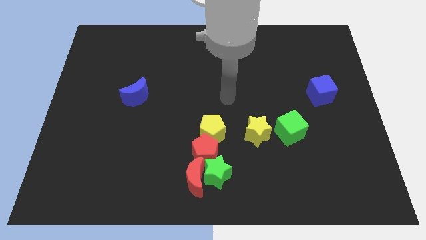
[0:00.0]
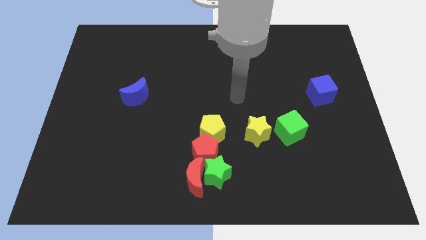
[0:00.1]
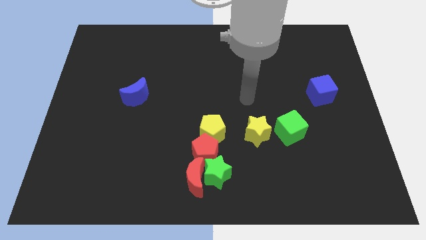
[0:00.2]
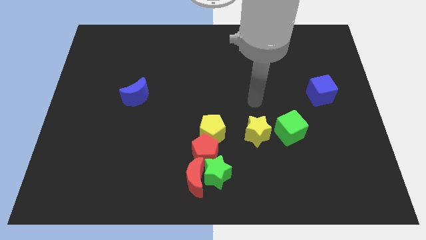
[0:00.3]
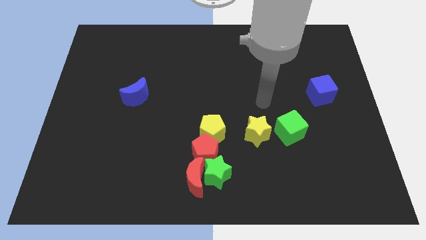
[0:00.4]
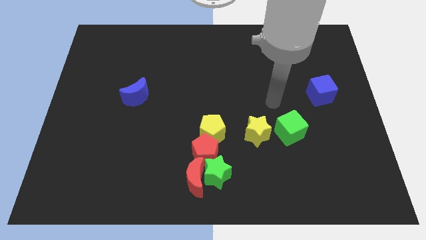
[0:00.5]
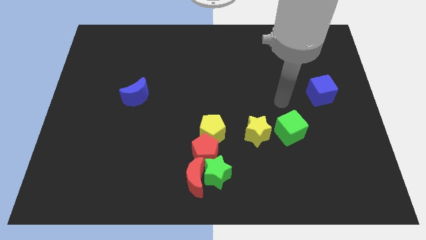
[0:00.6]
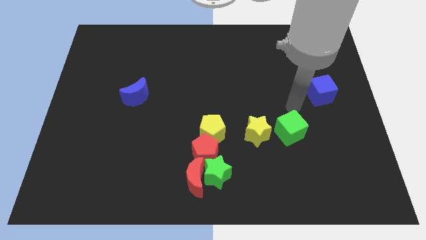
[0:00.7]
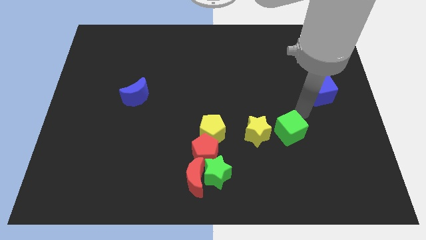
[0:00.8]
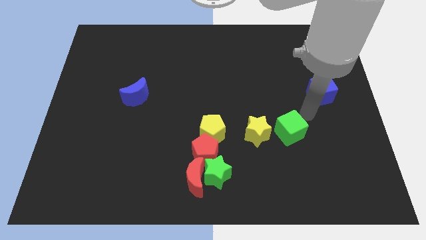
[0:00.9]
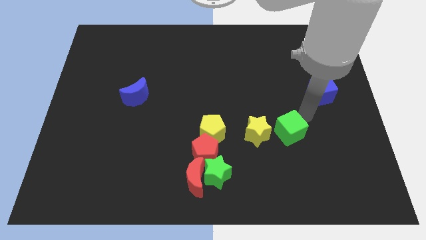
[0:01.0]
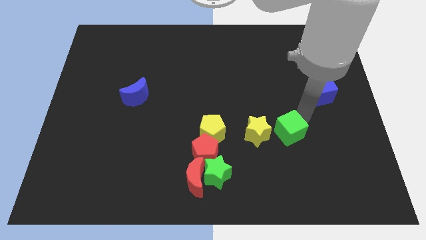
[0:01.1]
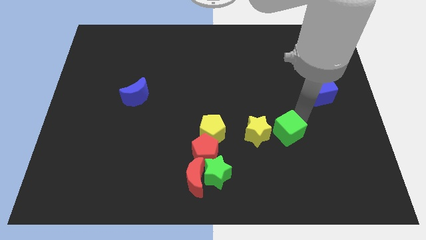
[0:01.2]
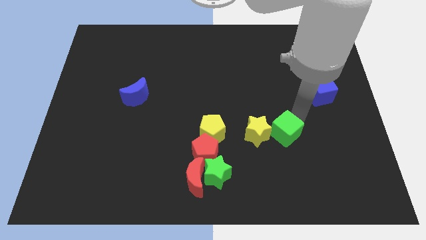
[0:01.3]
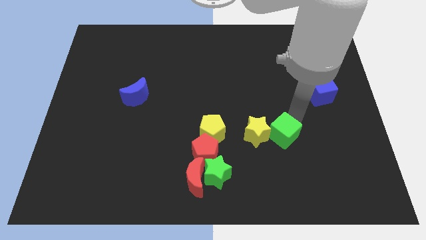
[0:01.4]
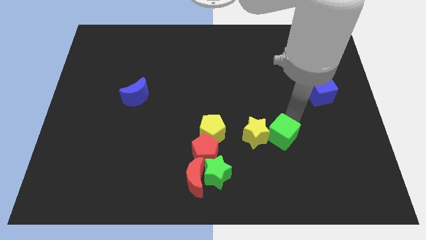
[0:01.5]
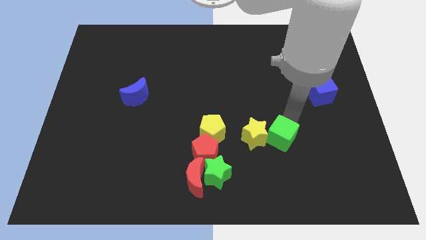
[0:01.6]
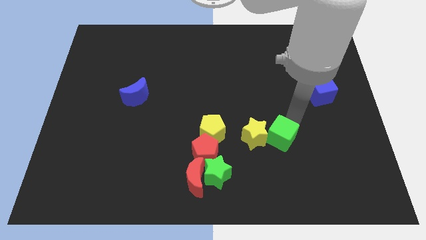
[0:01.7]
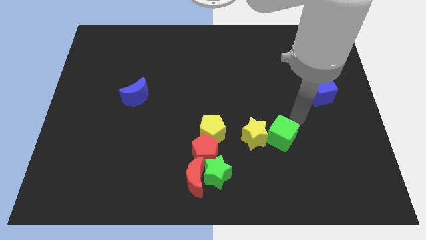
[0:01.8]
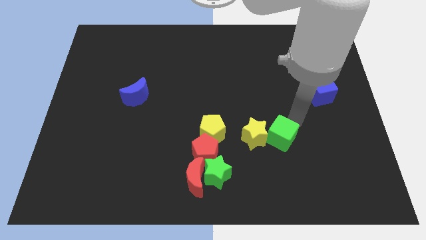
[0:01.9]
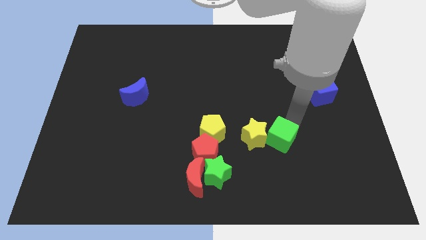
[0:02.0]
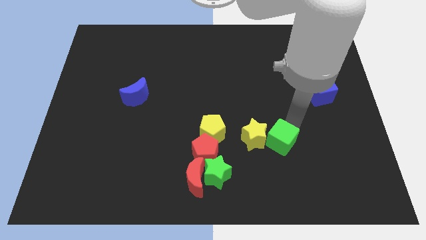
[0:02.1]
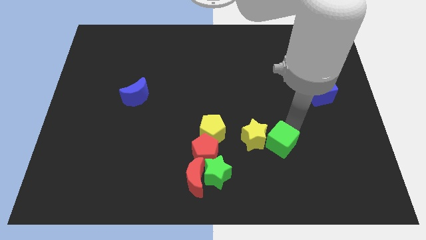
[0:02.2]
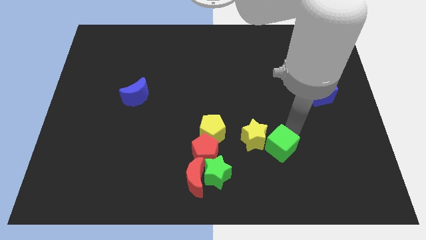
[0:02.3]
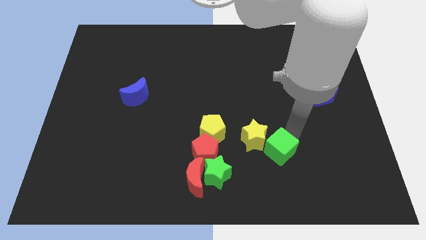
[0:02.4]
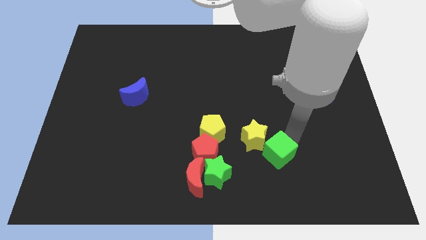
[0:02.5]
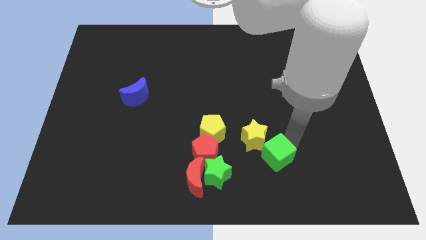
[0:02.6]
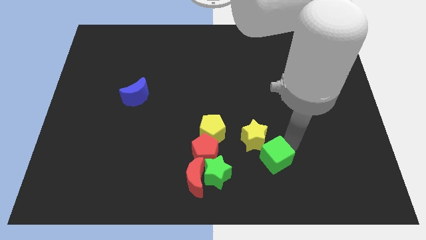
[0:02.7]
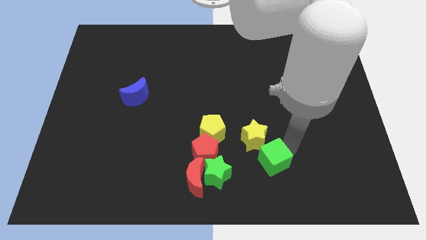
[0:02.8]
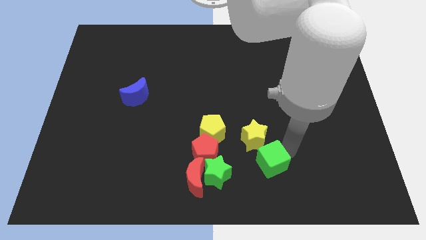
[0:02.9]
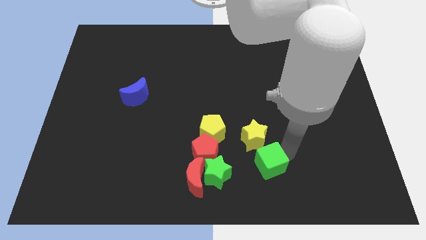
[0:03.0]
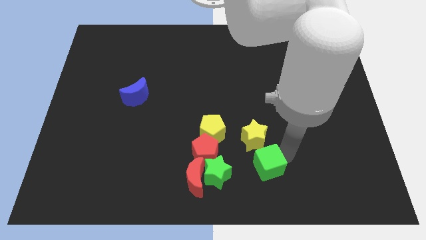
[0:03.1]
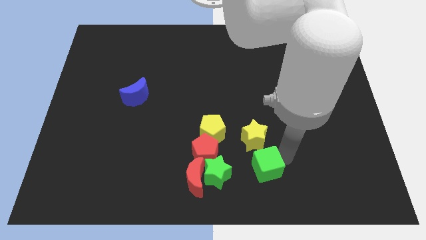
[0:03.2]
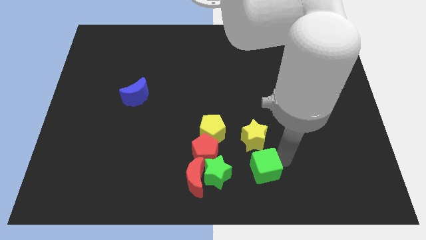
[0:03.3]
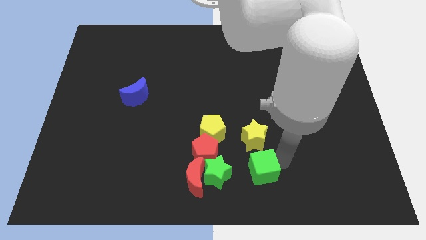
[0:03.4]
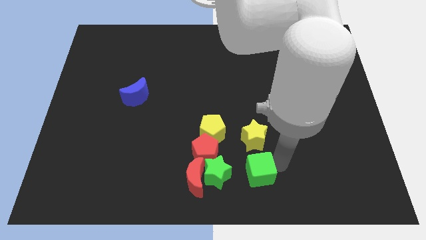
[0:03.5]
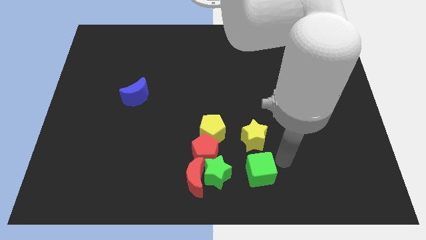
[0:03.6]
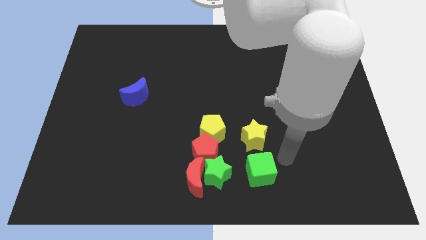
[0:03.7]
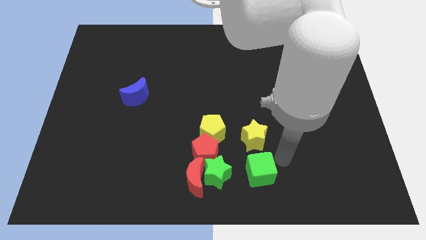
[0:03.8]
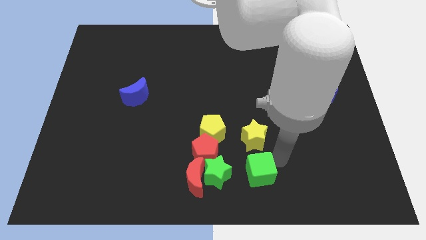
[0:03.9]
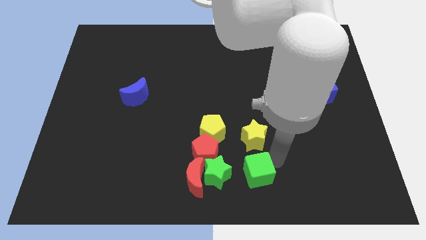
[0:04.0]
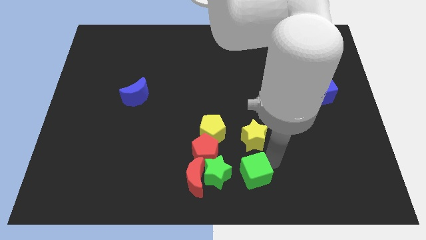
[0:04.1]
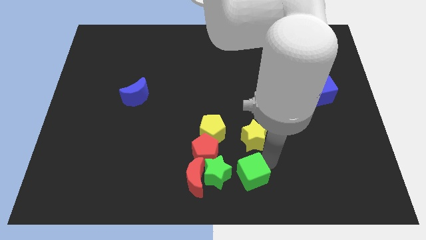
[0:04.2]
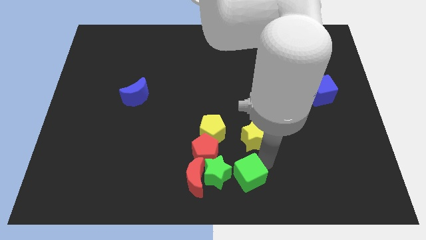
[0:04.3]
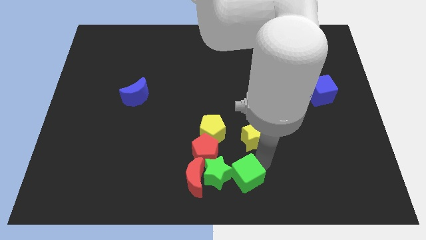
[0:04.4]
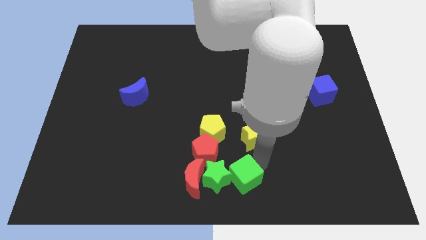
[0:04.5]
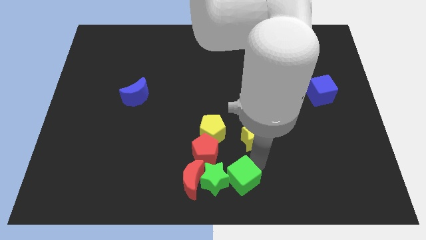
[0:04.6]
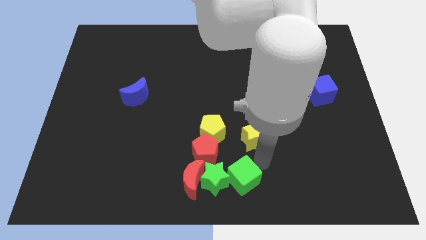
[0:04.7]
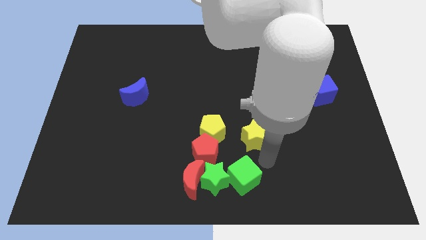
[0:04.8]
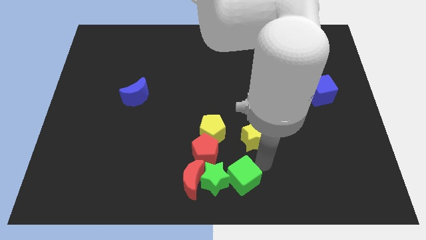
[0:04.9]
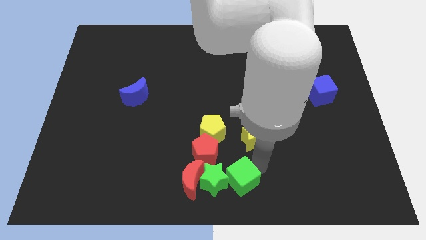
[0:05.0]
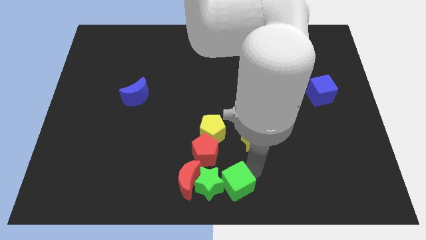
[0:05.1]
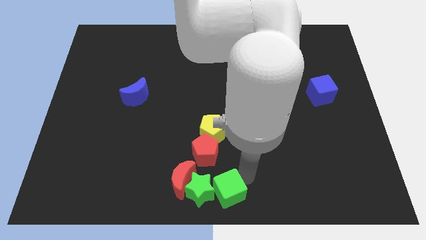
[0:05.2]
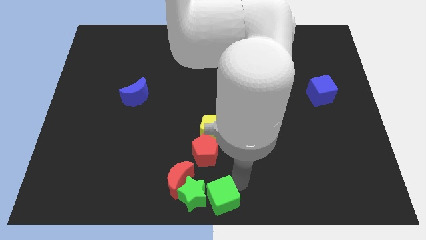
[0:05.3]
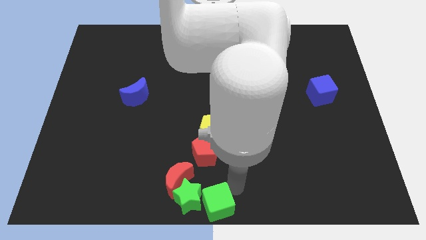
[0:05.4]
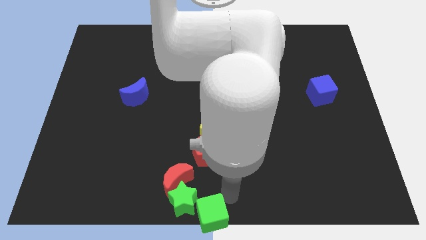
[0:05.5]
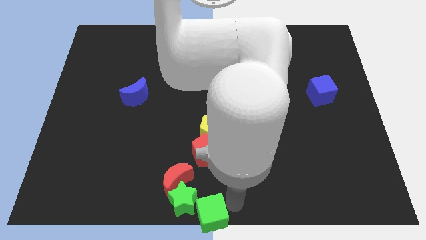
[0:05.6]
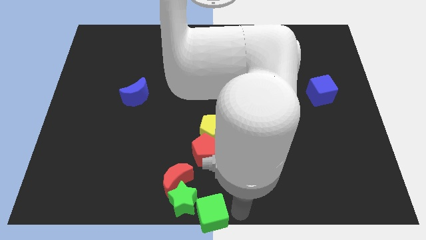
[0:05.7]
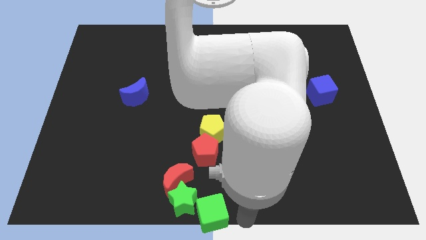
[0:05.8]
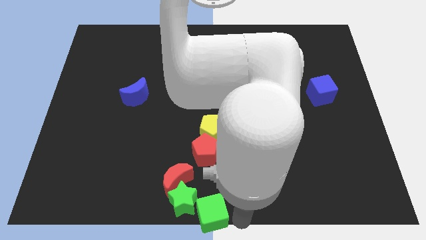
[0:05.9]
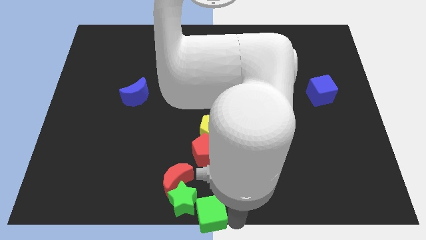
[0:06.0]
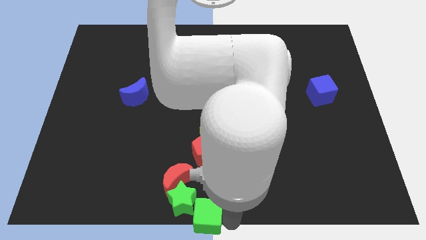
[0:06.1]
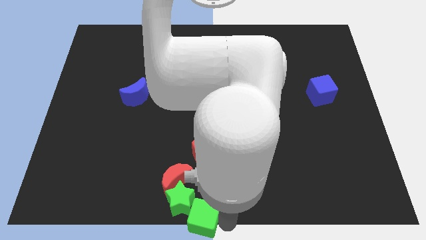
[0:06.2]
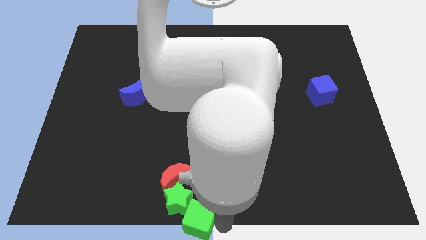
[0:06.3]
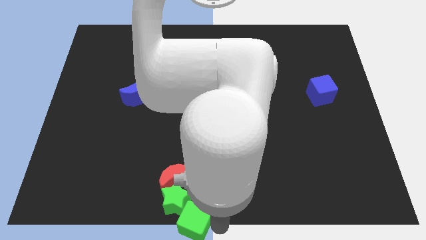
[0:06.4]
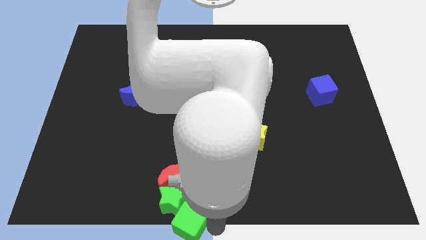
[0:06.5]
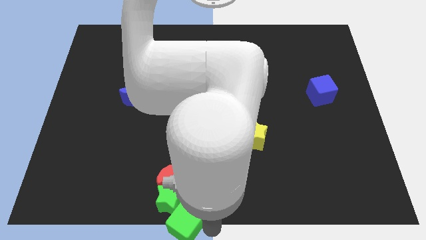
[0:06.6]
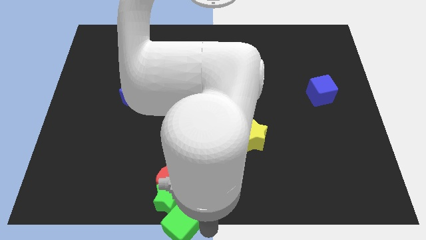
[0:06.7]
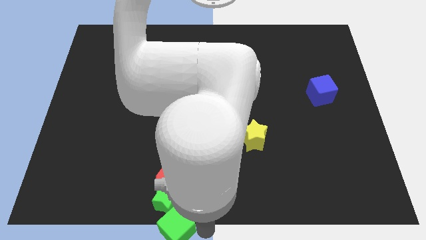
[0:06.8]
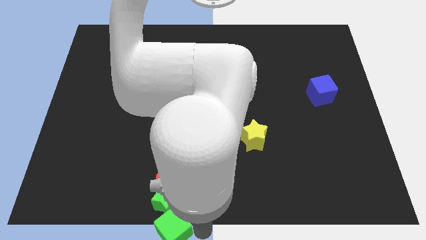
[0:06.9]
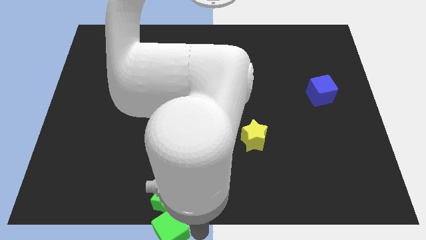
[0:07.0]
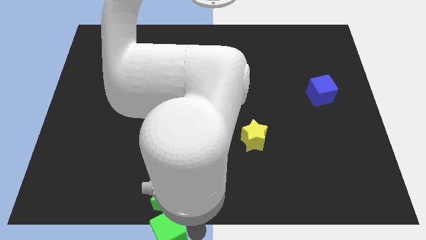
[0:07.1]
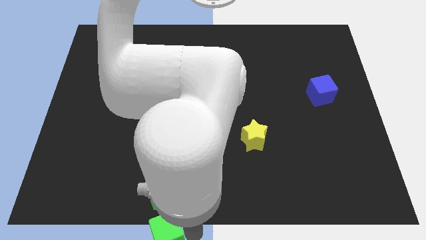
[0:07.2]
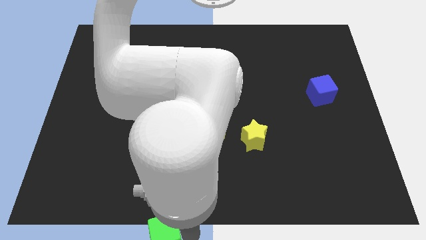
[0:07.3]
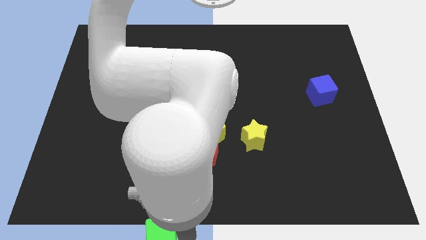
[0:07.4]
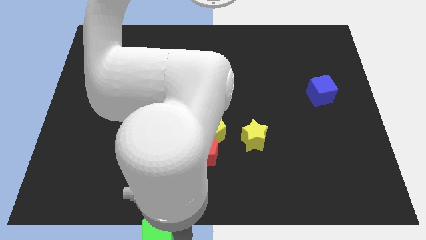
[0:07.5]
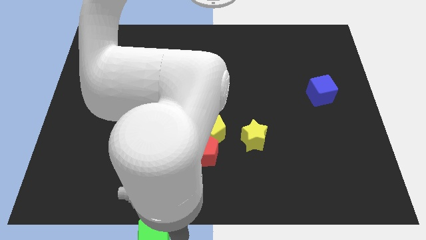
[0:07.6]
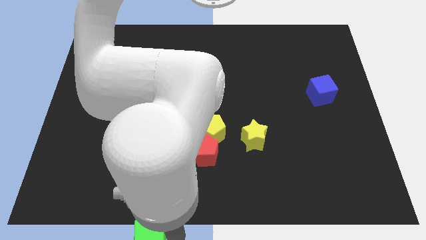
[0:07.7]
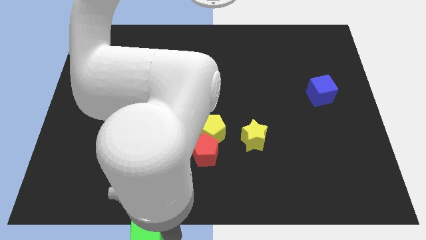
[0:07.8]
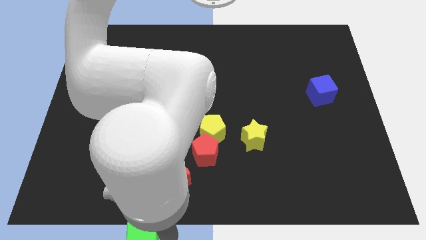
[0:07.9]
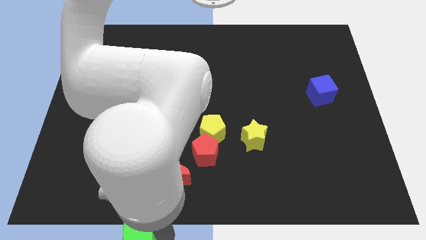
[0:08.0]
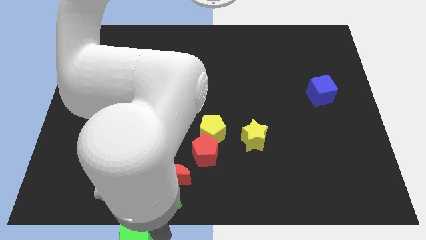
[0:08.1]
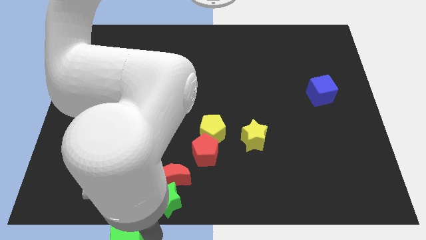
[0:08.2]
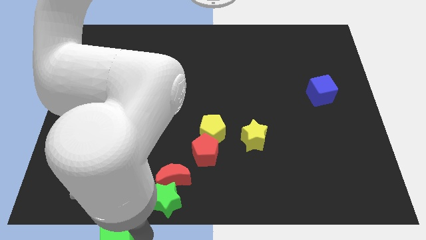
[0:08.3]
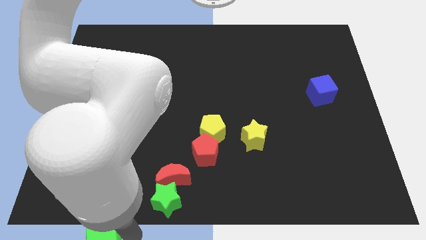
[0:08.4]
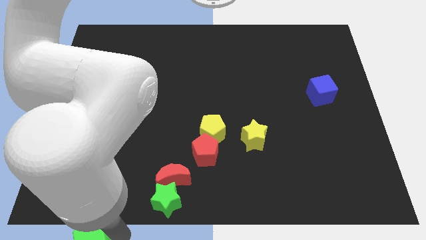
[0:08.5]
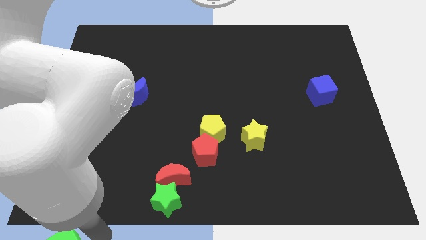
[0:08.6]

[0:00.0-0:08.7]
move the green cube to the bottom left of the board
